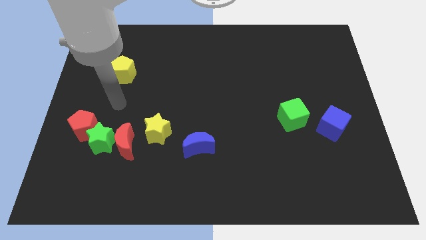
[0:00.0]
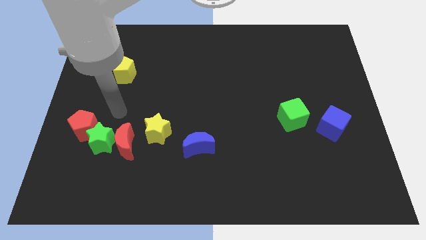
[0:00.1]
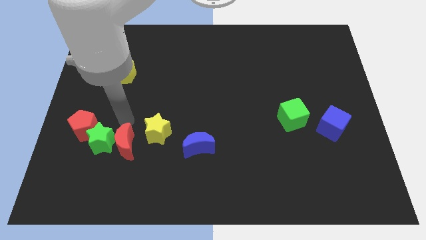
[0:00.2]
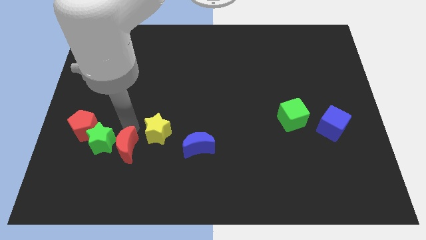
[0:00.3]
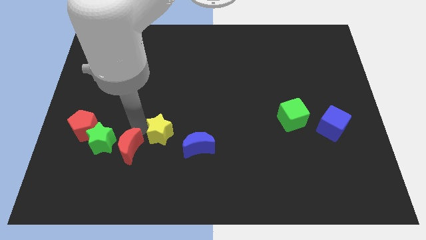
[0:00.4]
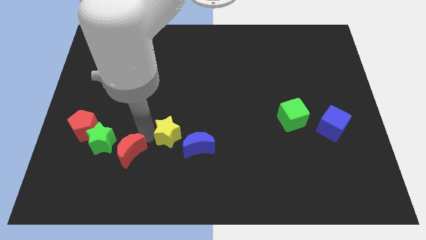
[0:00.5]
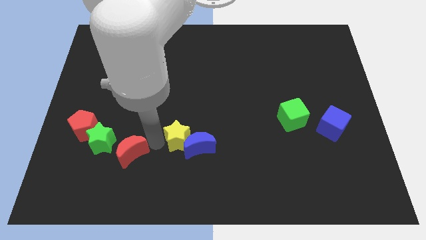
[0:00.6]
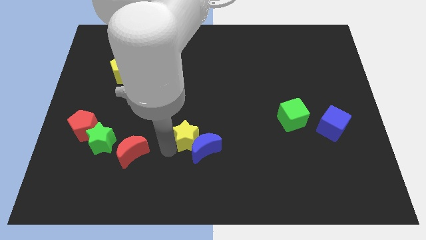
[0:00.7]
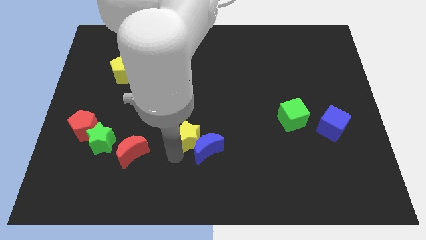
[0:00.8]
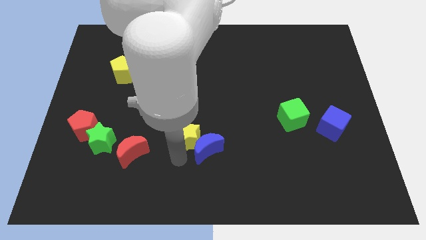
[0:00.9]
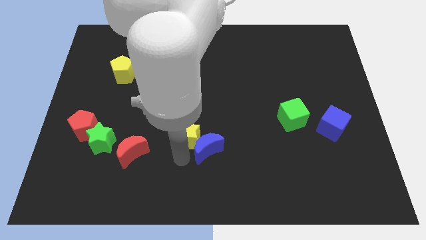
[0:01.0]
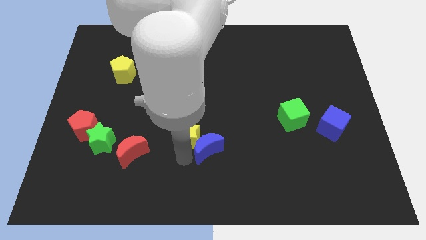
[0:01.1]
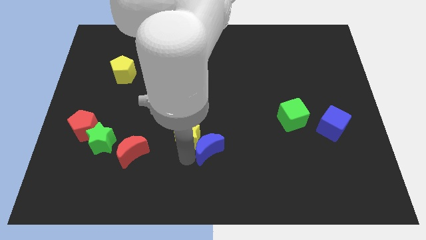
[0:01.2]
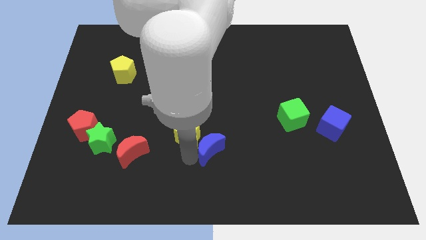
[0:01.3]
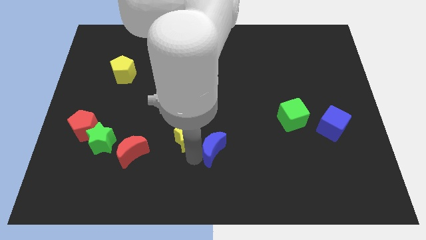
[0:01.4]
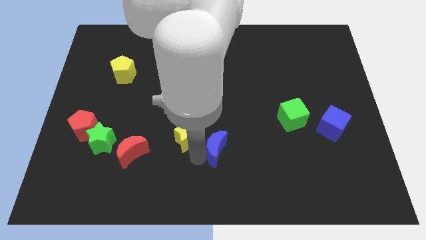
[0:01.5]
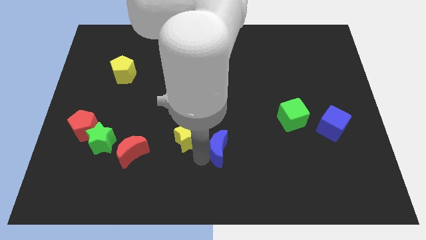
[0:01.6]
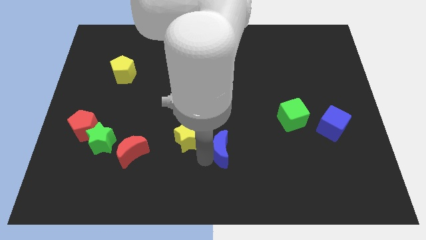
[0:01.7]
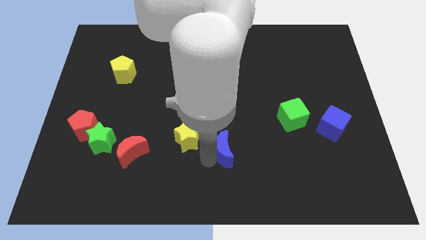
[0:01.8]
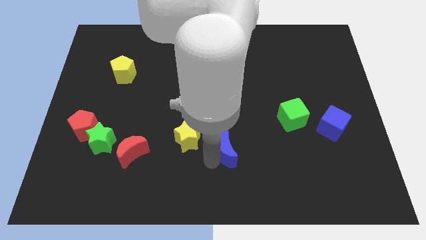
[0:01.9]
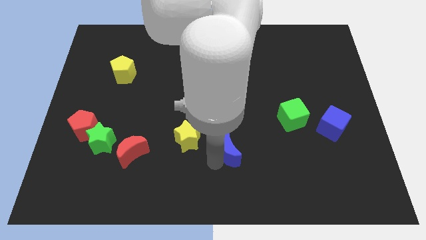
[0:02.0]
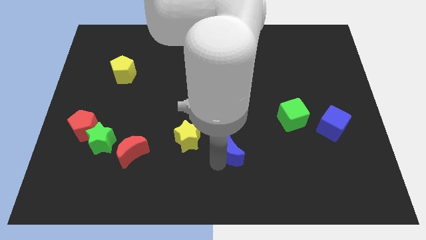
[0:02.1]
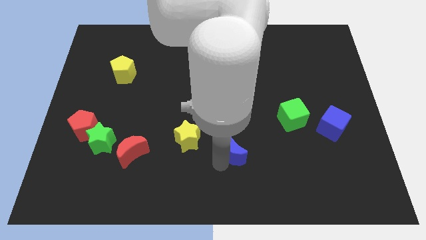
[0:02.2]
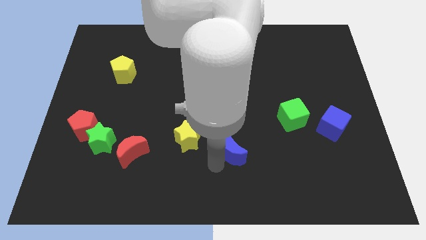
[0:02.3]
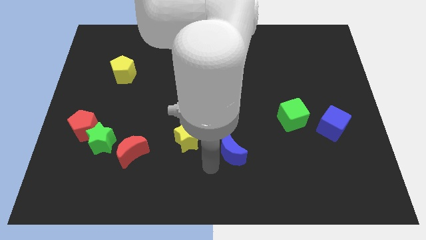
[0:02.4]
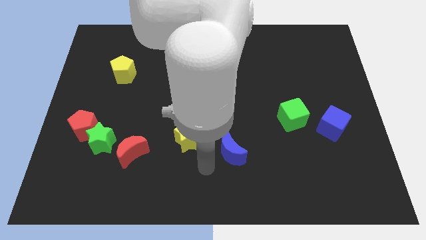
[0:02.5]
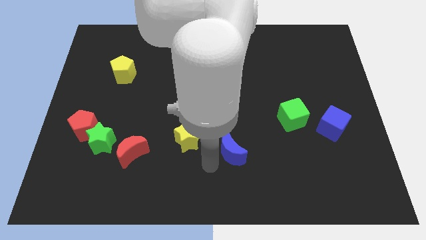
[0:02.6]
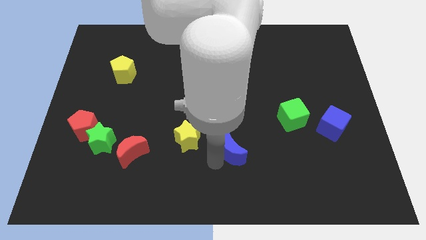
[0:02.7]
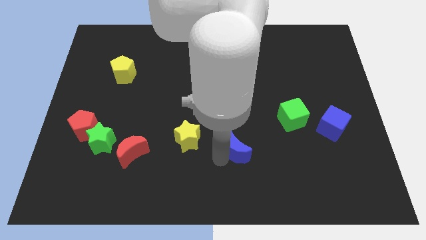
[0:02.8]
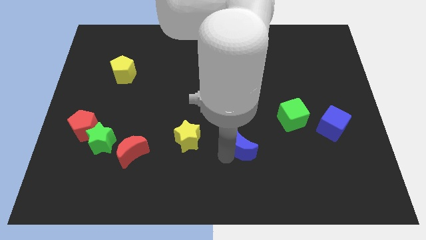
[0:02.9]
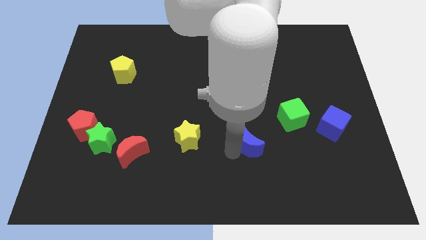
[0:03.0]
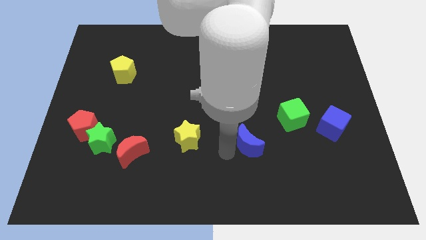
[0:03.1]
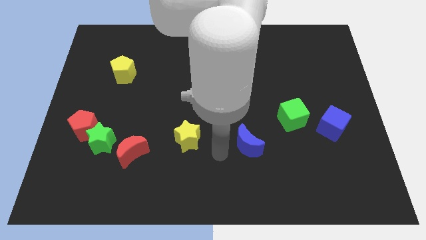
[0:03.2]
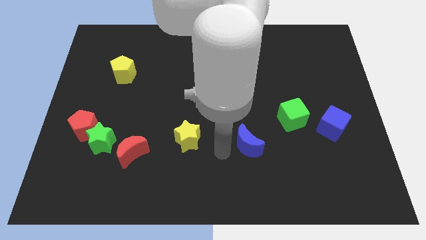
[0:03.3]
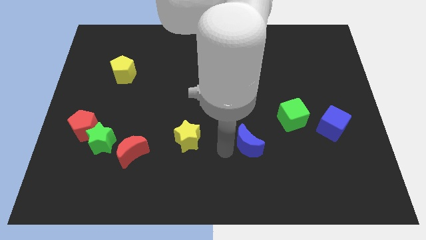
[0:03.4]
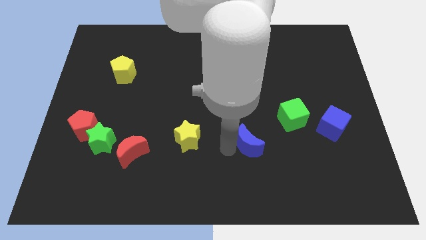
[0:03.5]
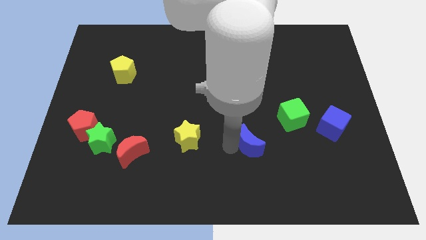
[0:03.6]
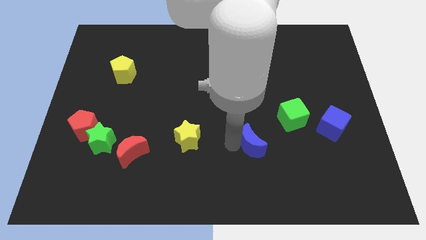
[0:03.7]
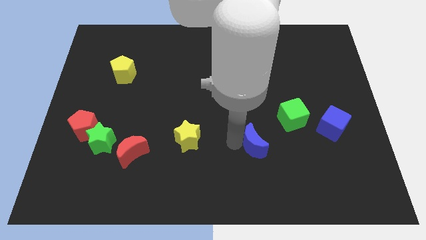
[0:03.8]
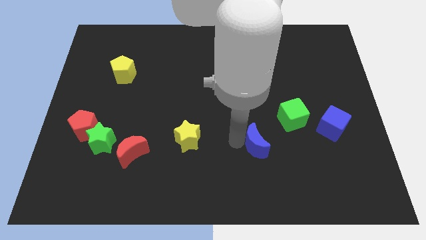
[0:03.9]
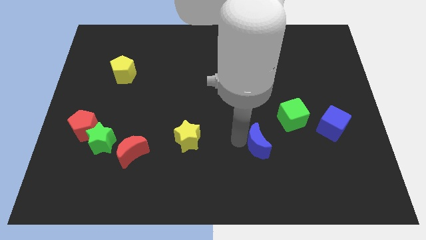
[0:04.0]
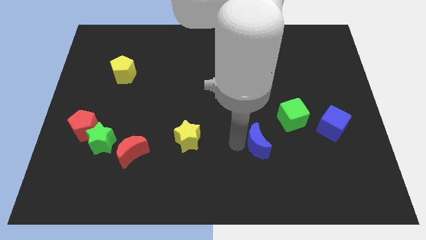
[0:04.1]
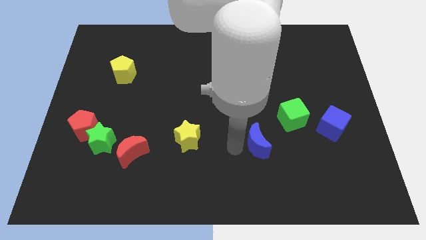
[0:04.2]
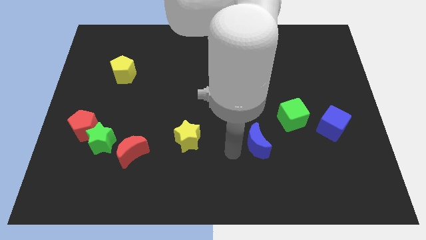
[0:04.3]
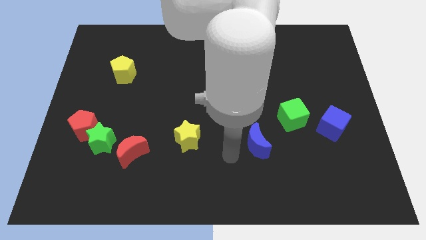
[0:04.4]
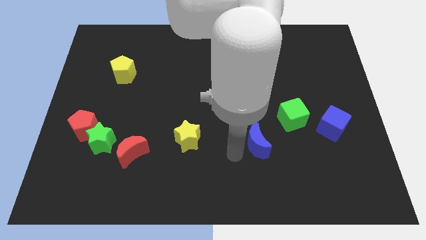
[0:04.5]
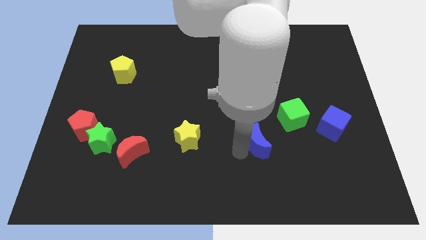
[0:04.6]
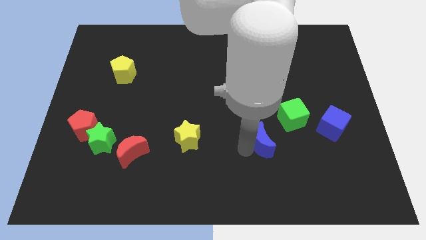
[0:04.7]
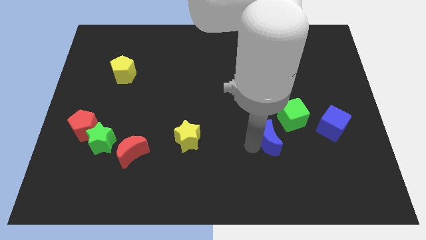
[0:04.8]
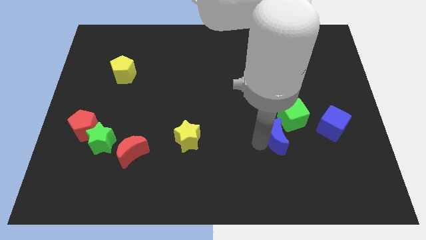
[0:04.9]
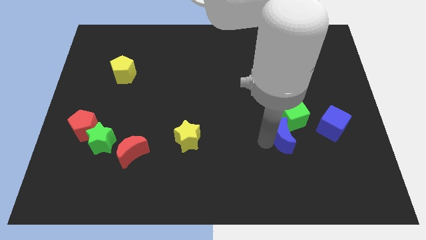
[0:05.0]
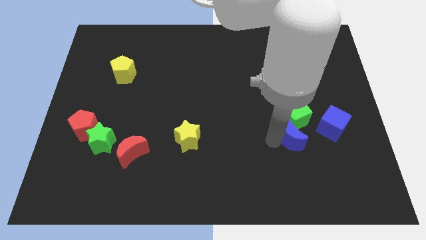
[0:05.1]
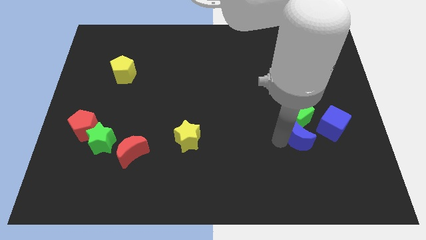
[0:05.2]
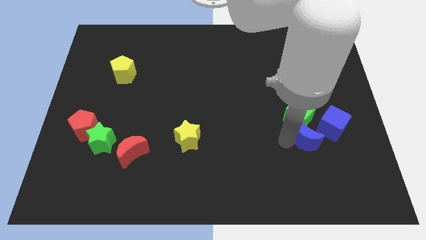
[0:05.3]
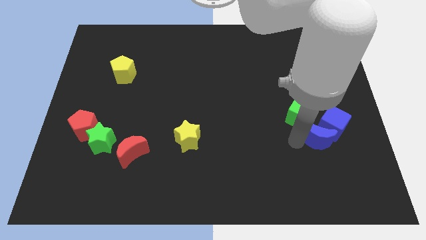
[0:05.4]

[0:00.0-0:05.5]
slide the blue moon to the blue cube

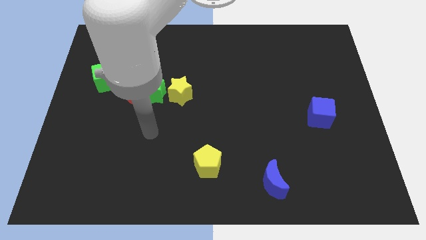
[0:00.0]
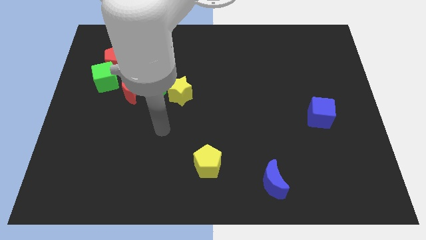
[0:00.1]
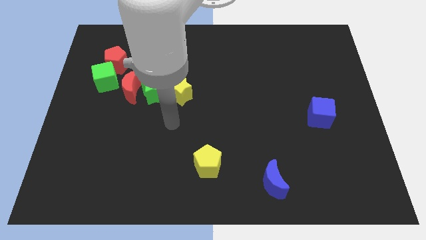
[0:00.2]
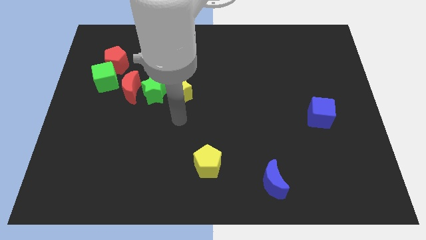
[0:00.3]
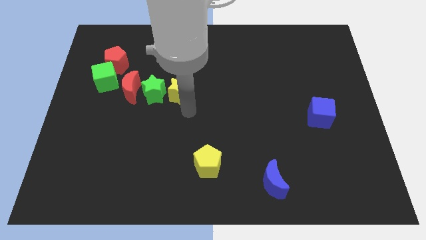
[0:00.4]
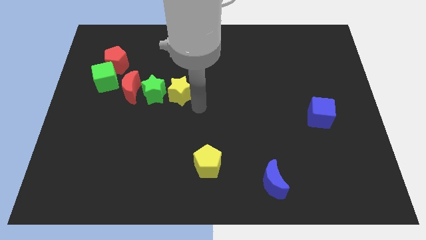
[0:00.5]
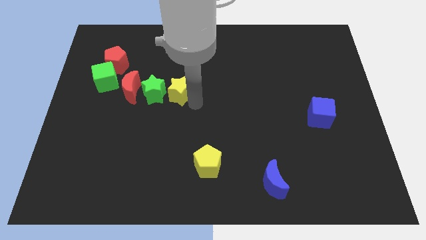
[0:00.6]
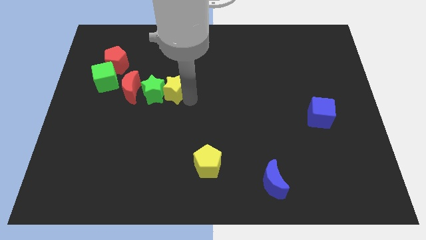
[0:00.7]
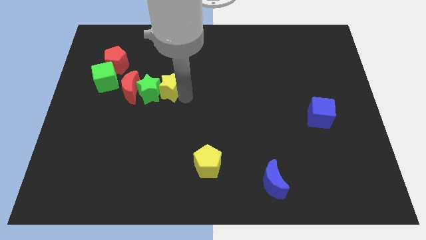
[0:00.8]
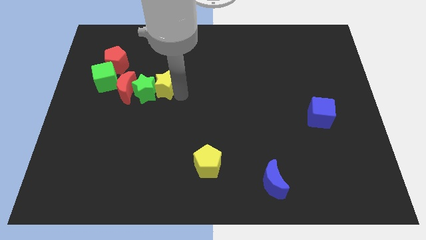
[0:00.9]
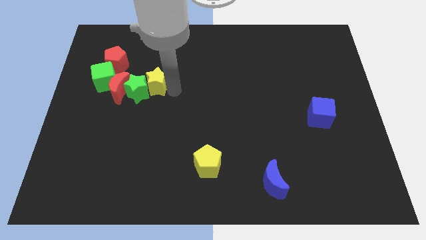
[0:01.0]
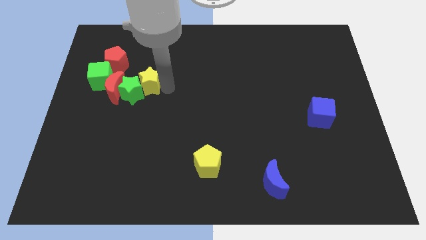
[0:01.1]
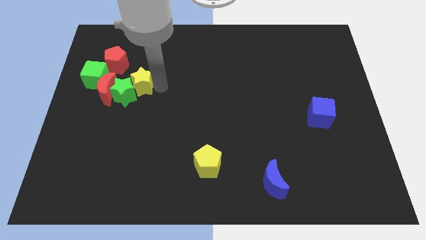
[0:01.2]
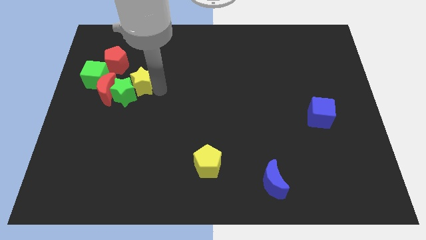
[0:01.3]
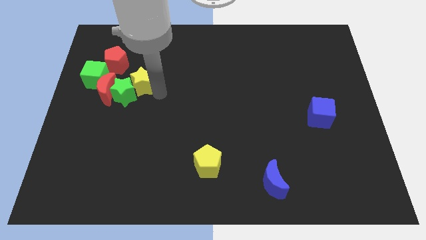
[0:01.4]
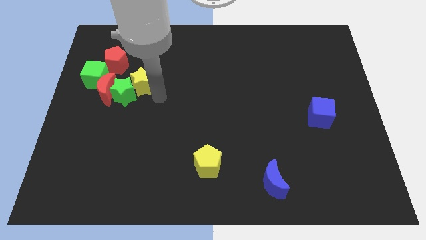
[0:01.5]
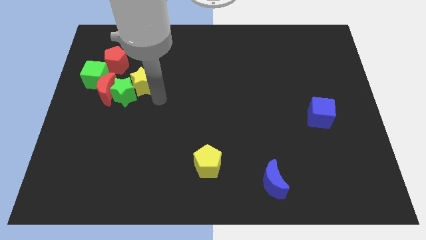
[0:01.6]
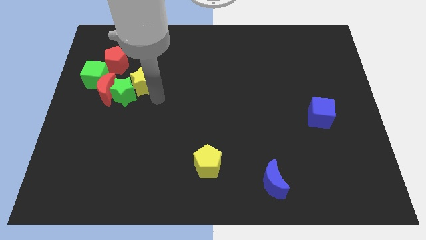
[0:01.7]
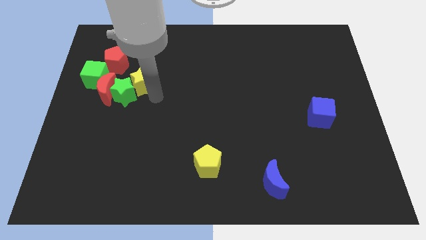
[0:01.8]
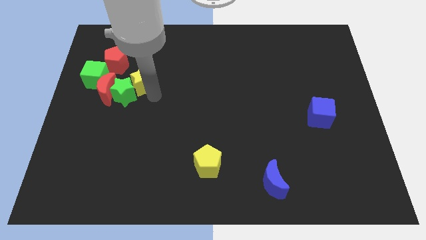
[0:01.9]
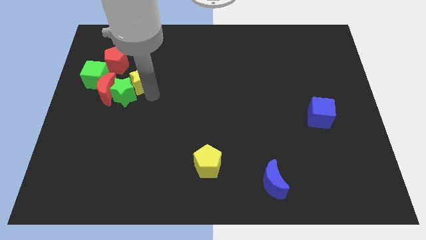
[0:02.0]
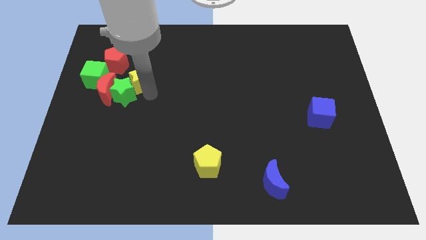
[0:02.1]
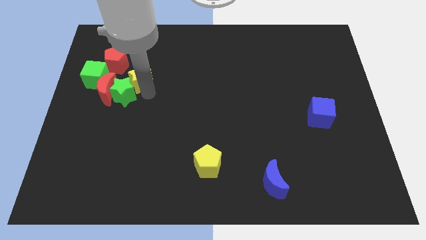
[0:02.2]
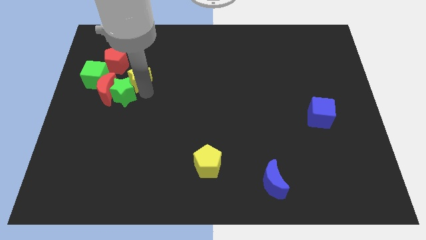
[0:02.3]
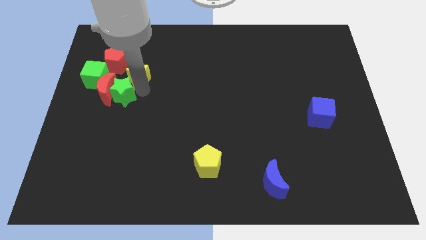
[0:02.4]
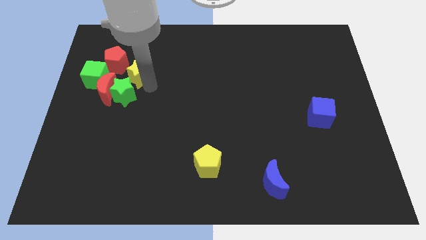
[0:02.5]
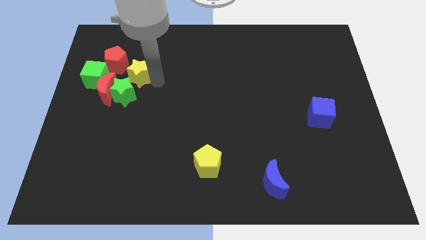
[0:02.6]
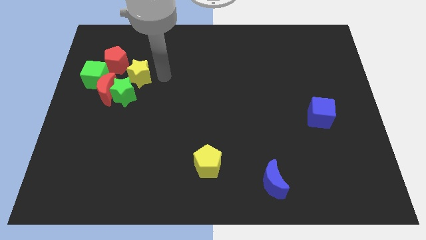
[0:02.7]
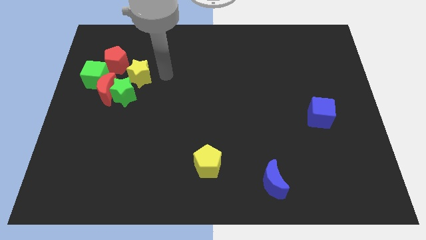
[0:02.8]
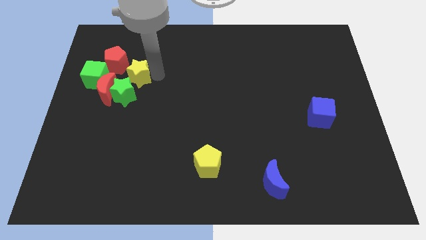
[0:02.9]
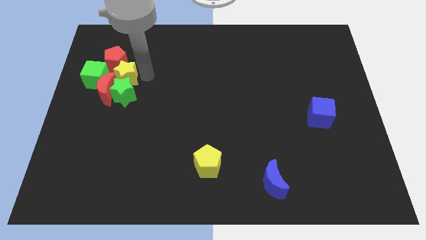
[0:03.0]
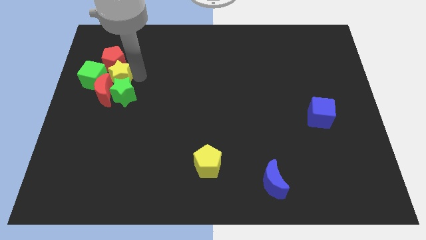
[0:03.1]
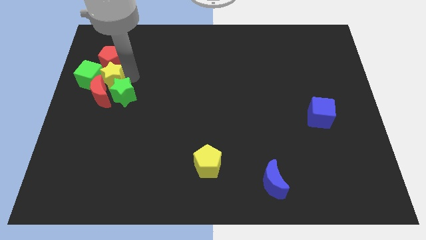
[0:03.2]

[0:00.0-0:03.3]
put the yellow star close to the green cube
